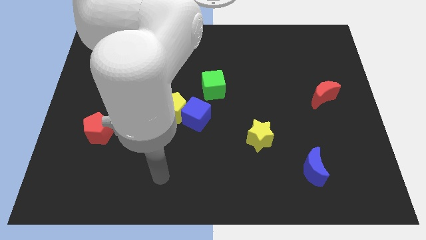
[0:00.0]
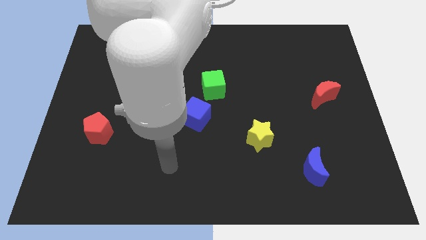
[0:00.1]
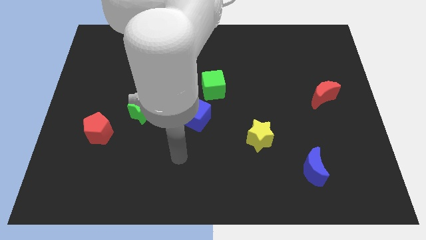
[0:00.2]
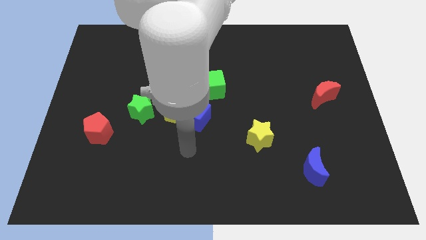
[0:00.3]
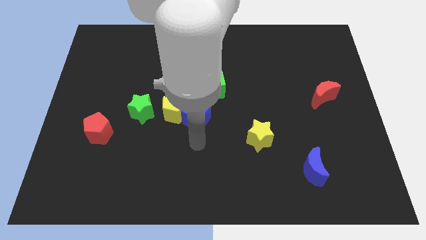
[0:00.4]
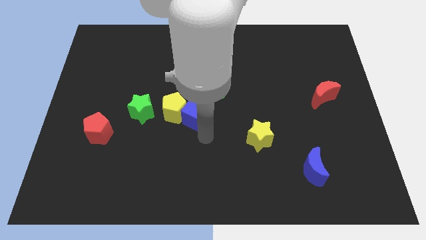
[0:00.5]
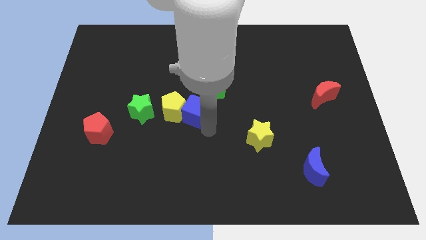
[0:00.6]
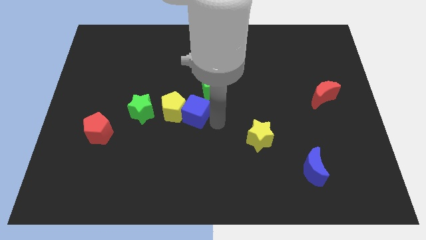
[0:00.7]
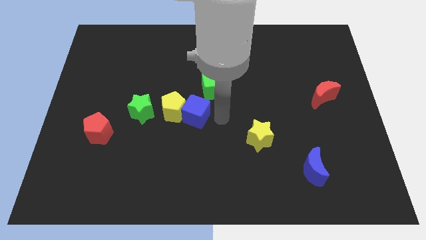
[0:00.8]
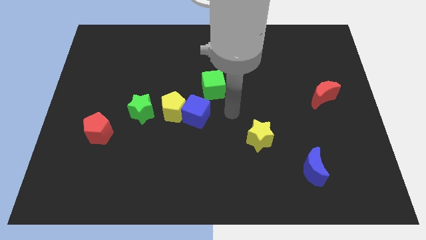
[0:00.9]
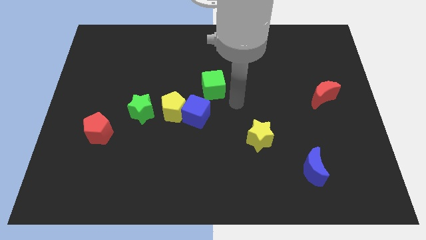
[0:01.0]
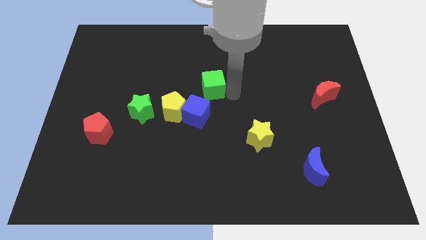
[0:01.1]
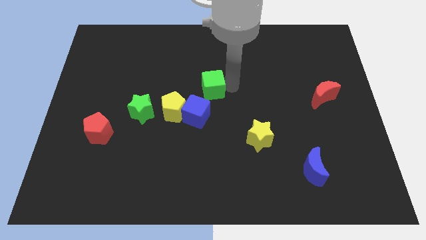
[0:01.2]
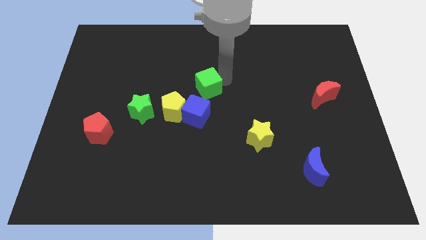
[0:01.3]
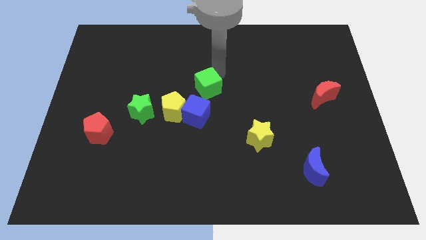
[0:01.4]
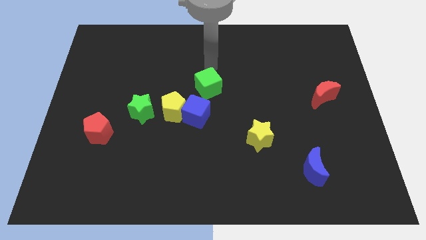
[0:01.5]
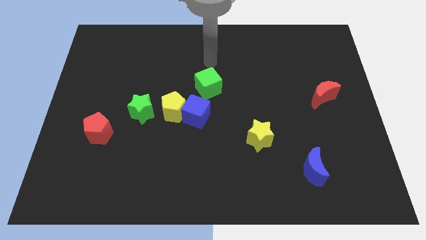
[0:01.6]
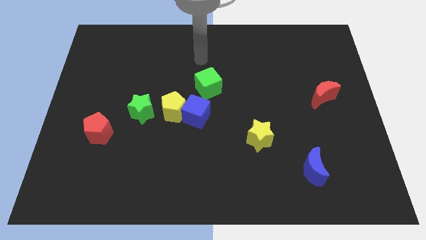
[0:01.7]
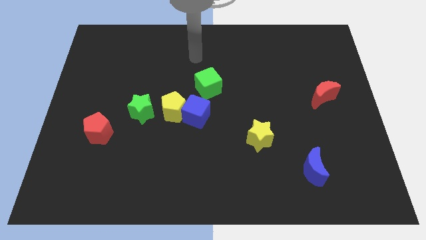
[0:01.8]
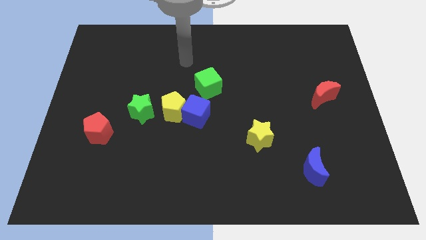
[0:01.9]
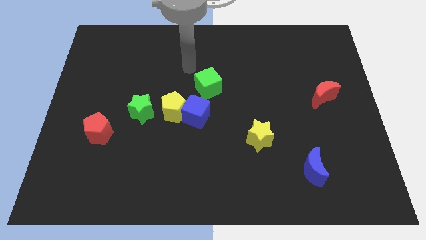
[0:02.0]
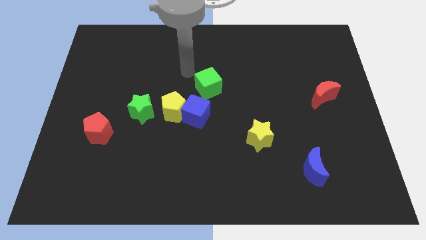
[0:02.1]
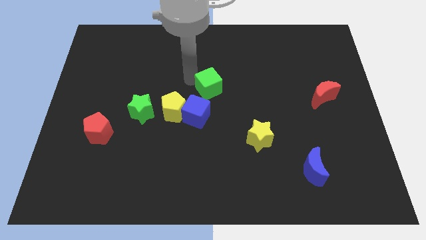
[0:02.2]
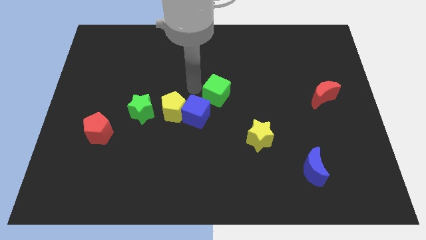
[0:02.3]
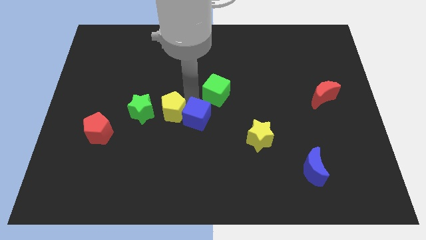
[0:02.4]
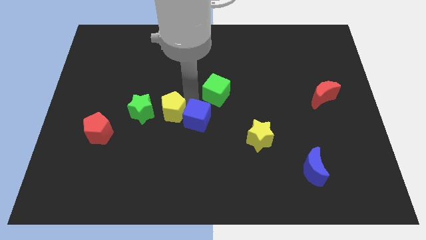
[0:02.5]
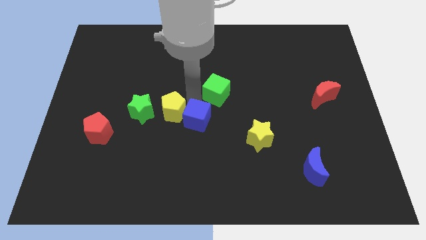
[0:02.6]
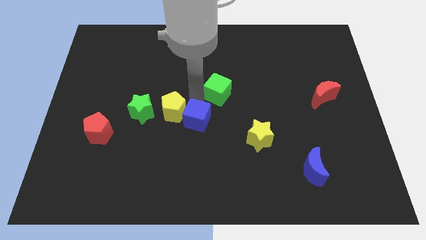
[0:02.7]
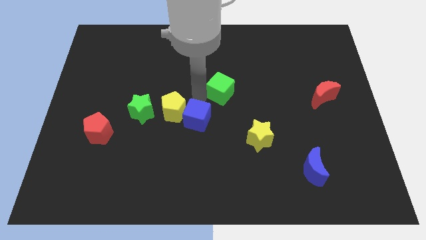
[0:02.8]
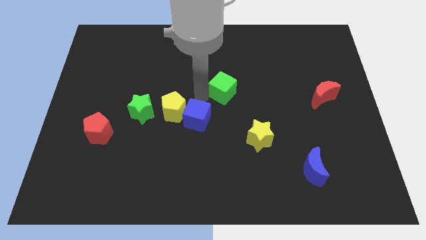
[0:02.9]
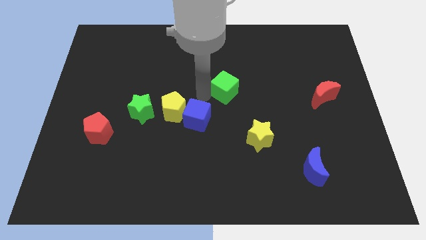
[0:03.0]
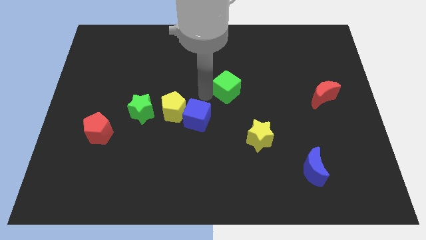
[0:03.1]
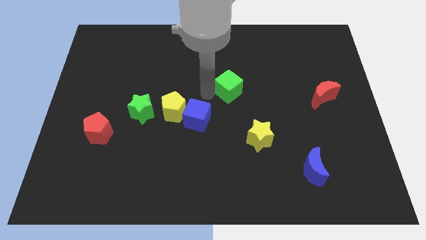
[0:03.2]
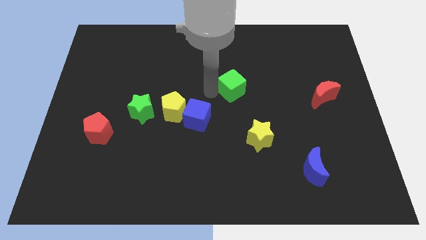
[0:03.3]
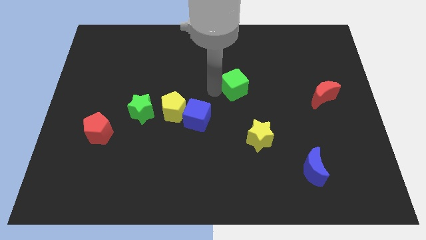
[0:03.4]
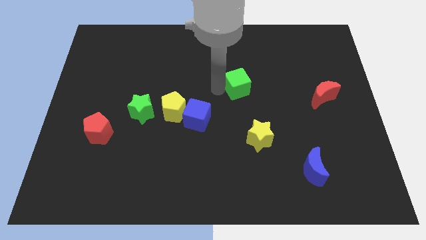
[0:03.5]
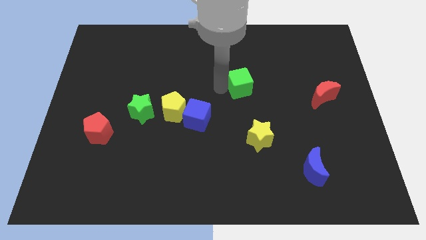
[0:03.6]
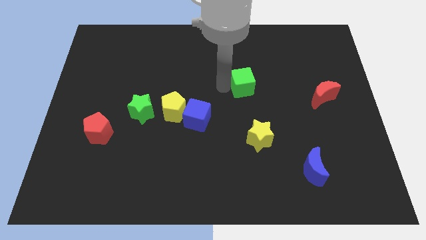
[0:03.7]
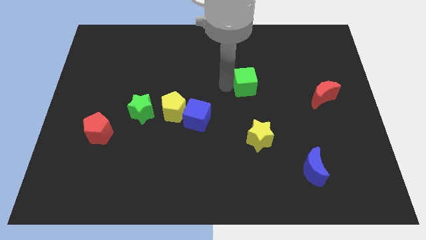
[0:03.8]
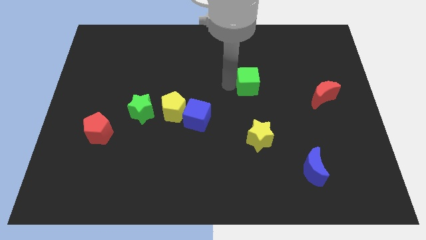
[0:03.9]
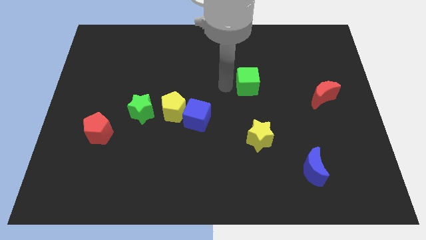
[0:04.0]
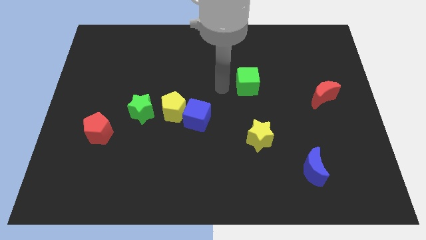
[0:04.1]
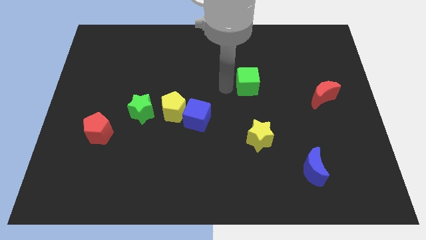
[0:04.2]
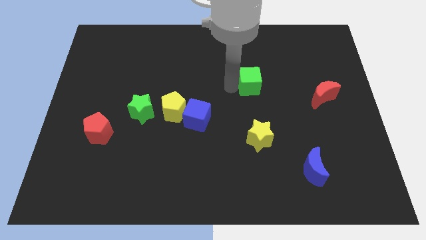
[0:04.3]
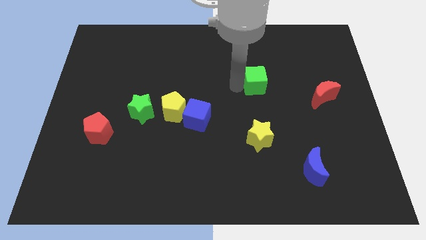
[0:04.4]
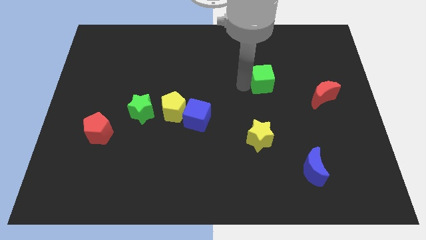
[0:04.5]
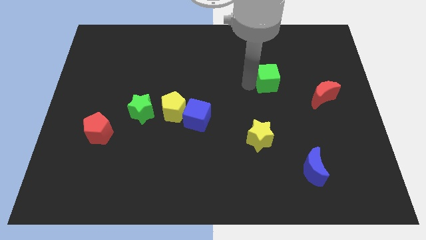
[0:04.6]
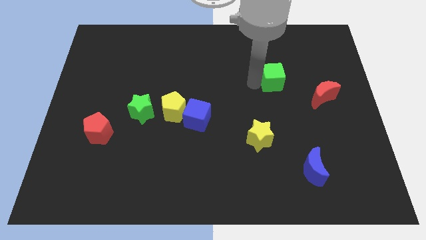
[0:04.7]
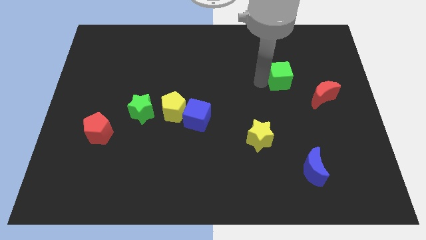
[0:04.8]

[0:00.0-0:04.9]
slide the green cube diagonally up and to the left of the red moon

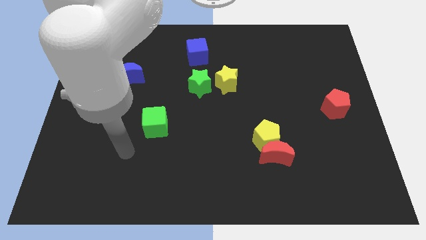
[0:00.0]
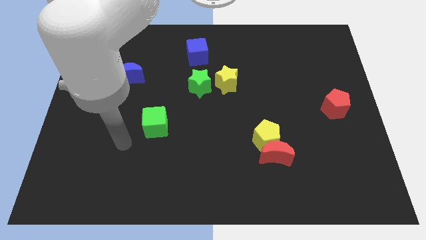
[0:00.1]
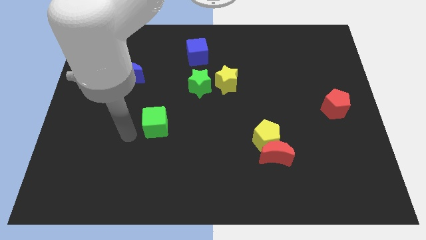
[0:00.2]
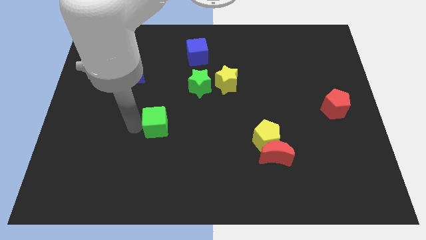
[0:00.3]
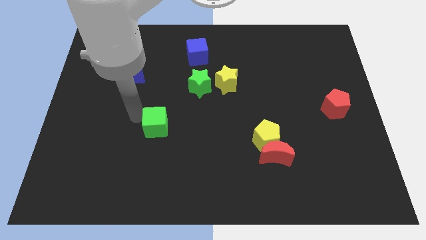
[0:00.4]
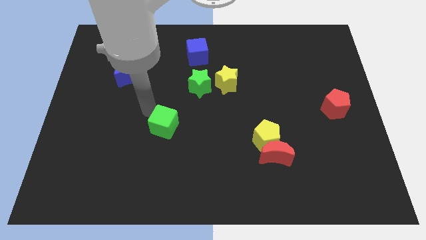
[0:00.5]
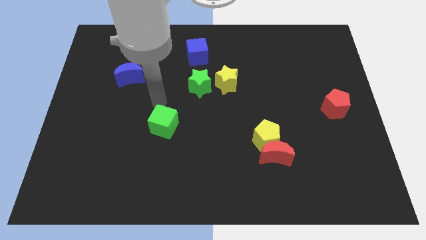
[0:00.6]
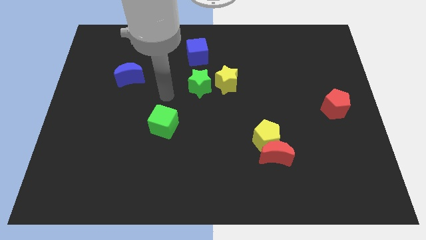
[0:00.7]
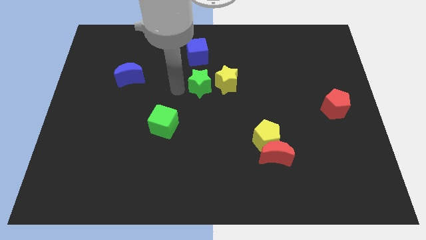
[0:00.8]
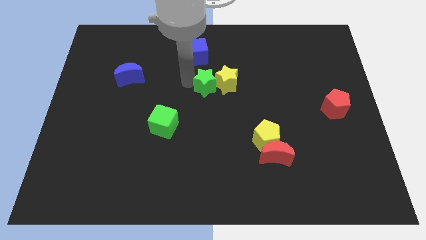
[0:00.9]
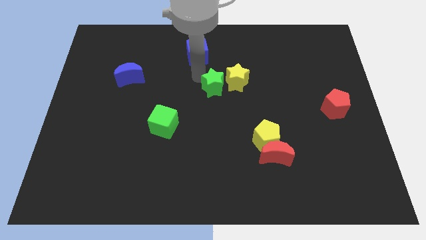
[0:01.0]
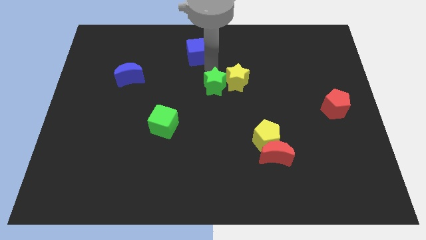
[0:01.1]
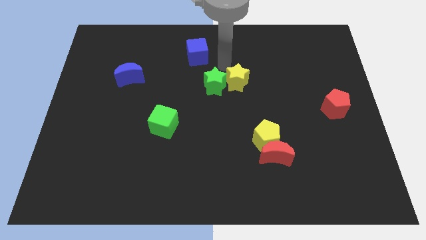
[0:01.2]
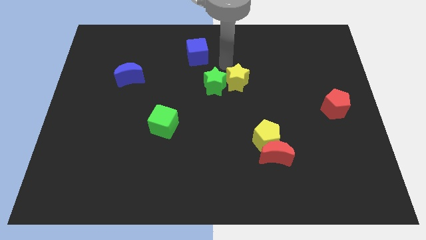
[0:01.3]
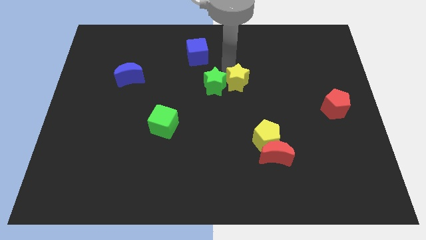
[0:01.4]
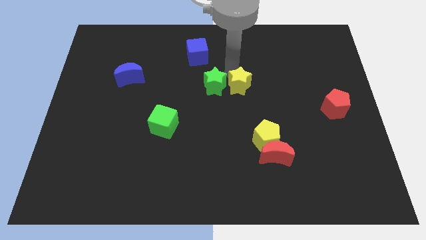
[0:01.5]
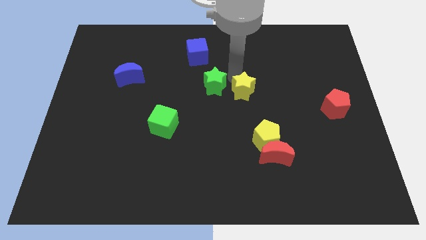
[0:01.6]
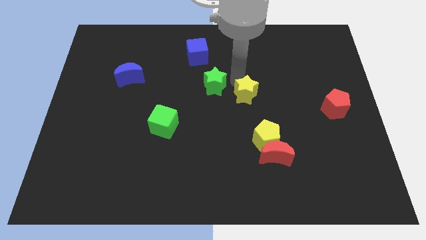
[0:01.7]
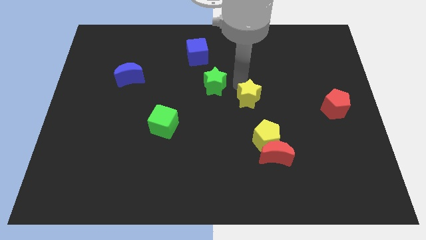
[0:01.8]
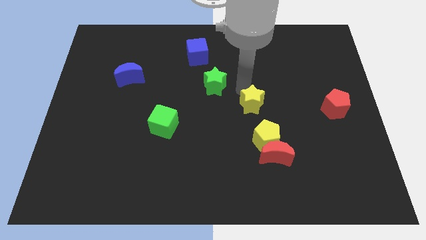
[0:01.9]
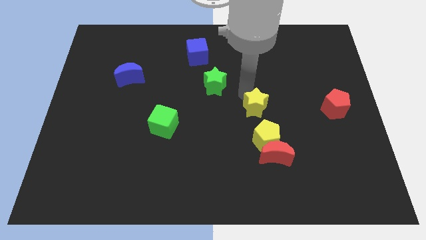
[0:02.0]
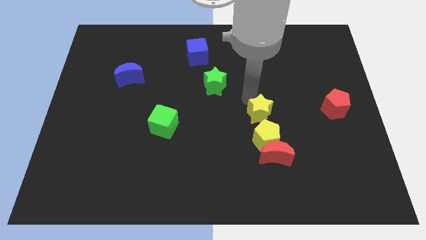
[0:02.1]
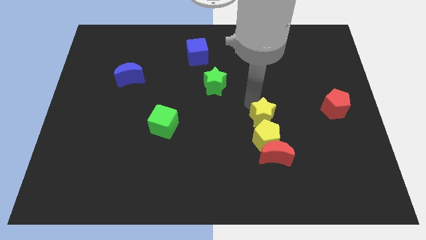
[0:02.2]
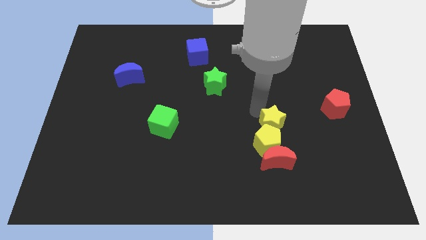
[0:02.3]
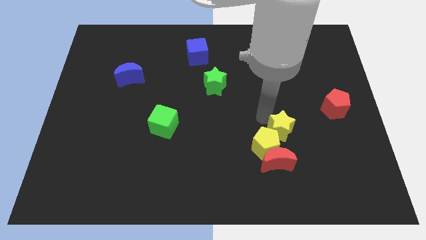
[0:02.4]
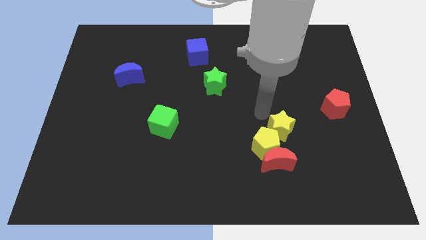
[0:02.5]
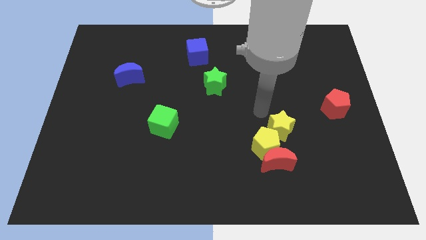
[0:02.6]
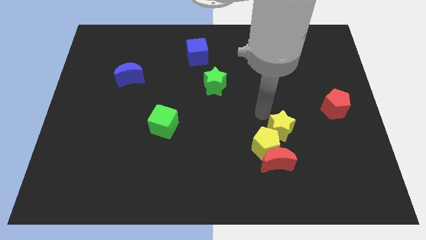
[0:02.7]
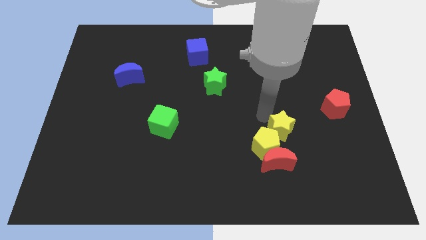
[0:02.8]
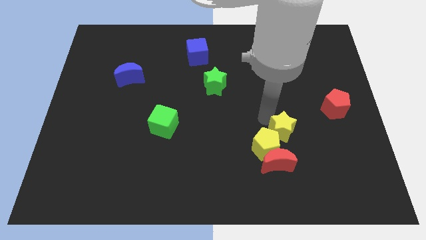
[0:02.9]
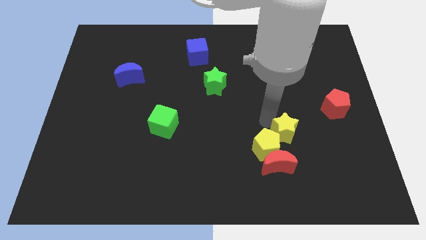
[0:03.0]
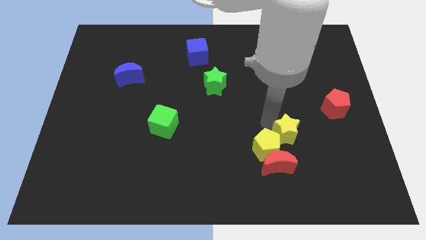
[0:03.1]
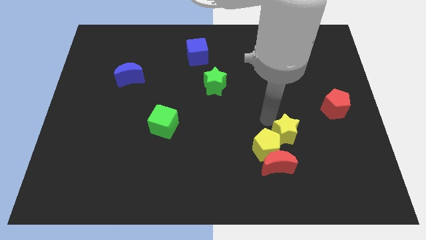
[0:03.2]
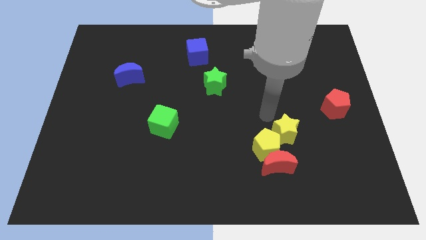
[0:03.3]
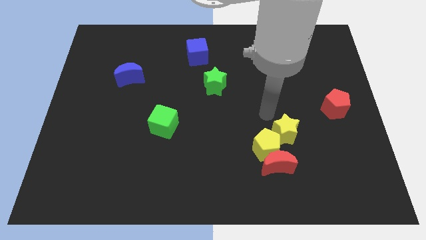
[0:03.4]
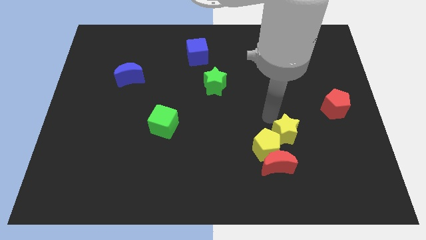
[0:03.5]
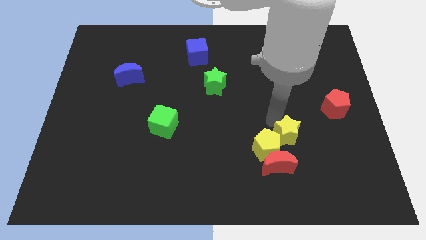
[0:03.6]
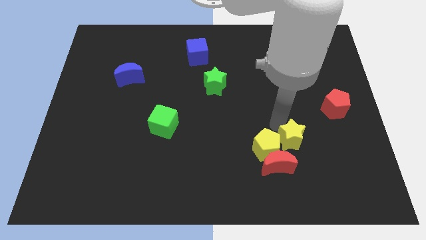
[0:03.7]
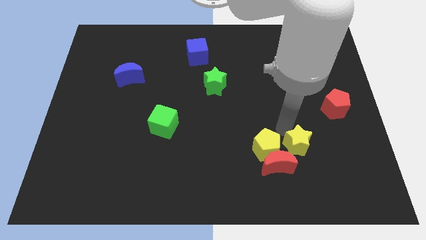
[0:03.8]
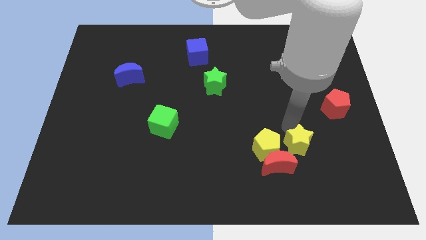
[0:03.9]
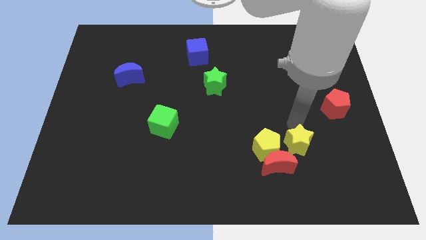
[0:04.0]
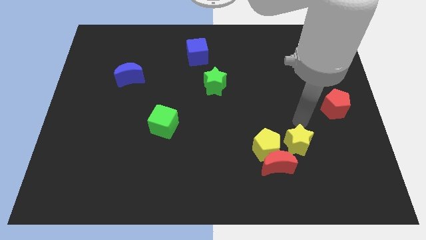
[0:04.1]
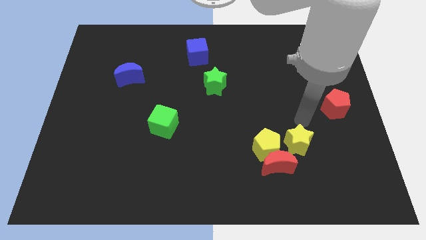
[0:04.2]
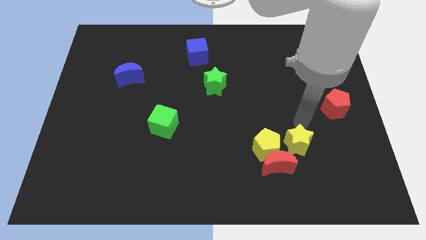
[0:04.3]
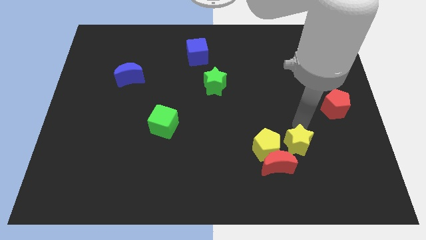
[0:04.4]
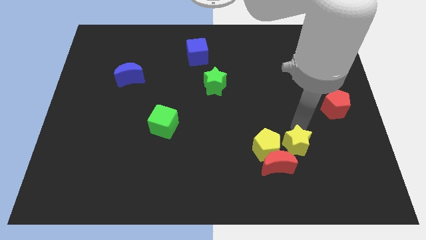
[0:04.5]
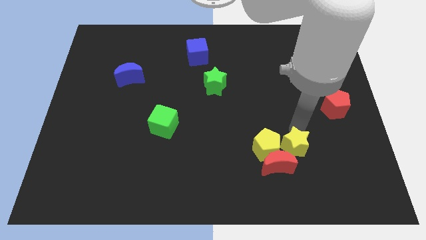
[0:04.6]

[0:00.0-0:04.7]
move the yellow star to the bottom right side of the yellow pentagon
